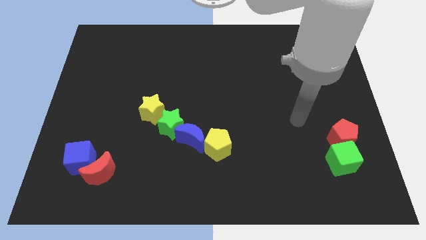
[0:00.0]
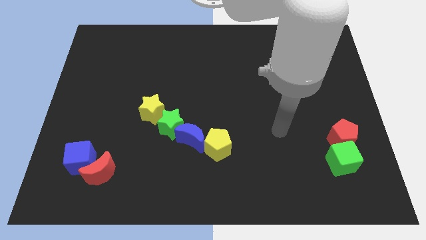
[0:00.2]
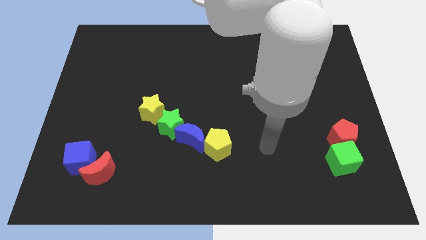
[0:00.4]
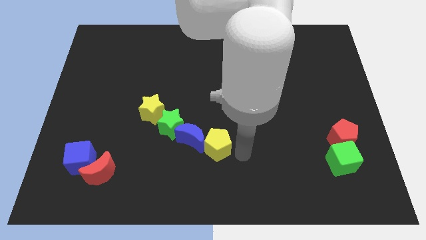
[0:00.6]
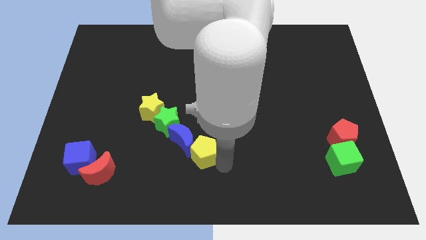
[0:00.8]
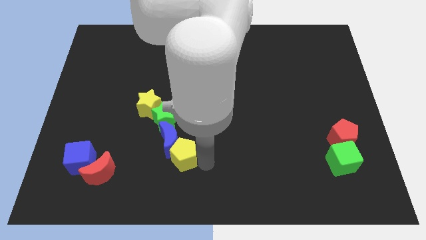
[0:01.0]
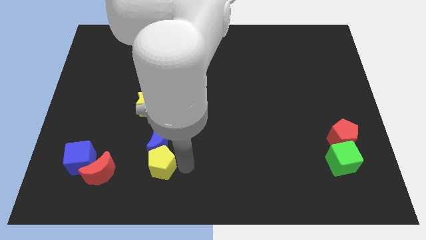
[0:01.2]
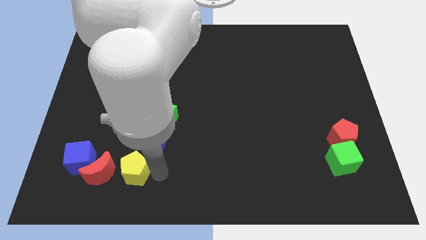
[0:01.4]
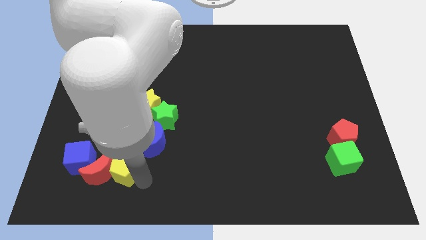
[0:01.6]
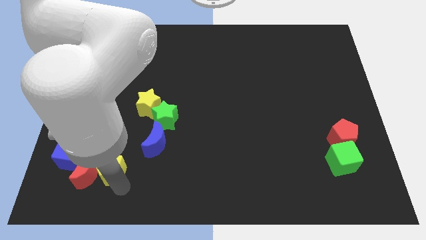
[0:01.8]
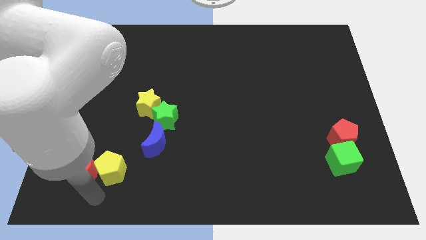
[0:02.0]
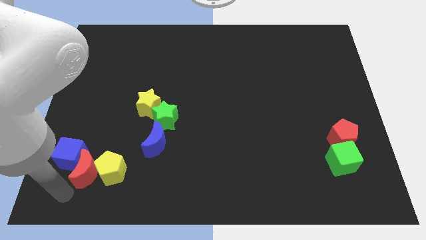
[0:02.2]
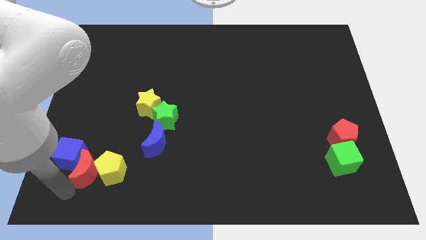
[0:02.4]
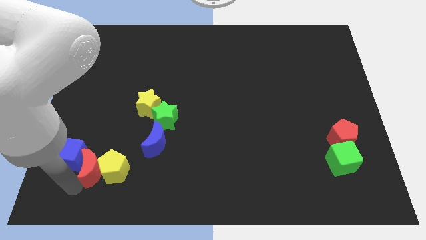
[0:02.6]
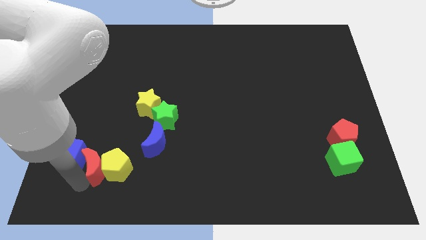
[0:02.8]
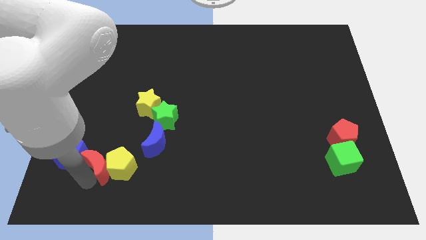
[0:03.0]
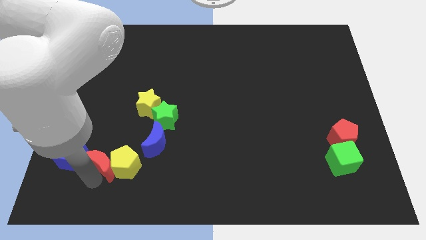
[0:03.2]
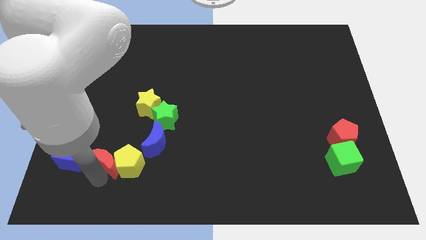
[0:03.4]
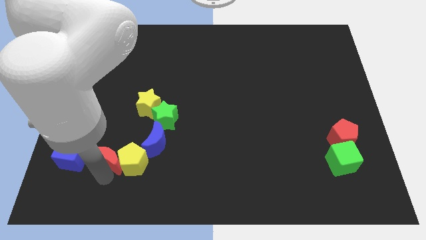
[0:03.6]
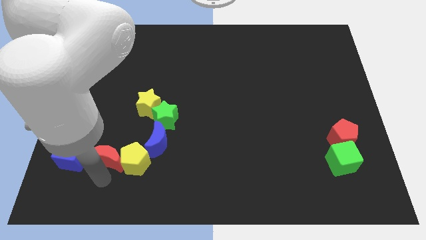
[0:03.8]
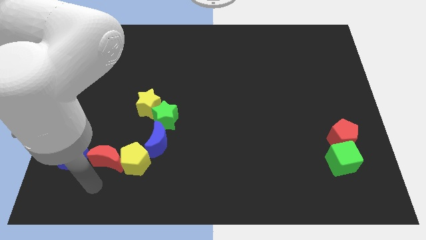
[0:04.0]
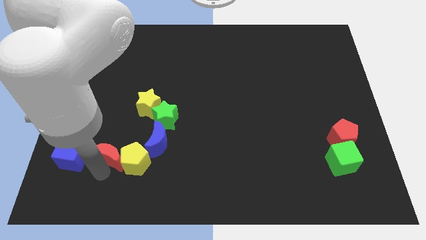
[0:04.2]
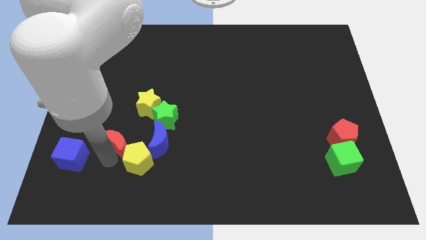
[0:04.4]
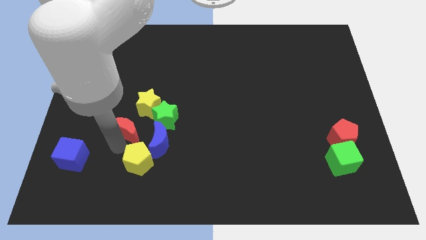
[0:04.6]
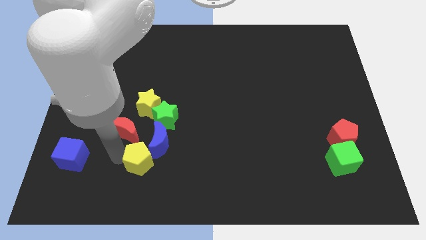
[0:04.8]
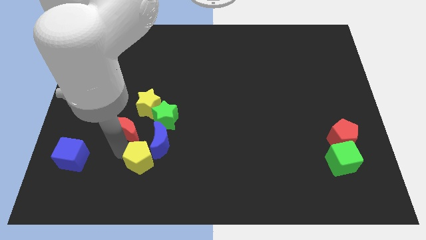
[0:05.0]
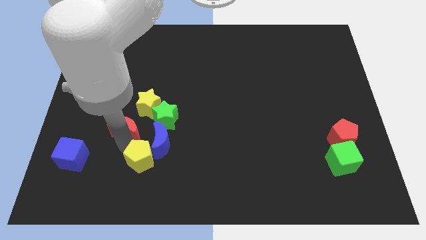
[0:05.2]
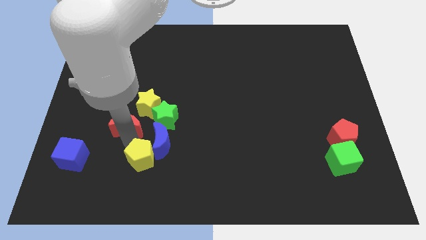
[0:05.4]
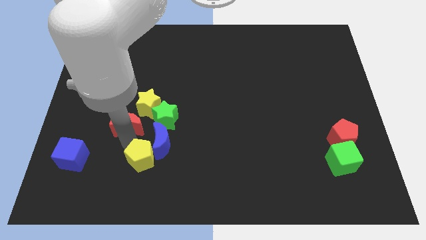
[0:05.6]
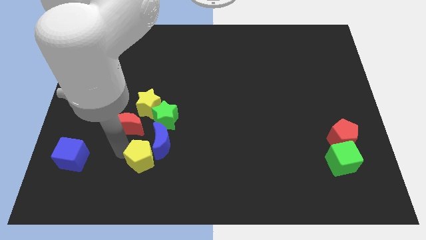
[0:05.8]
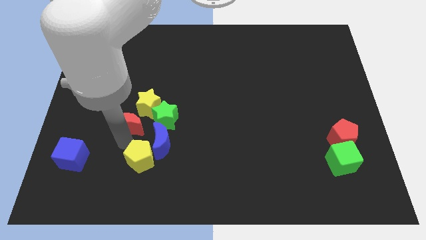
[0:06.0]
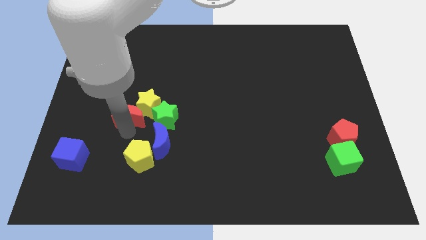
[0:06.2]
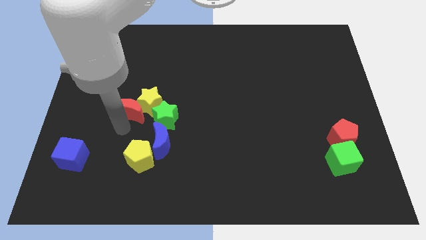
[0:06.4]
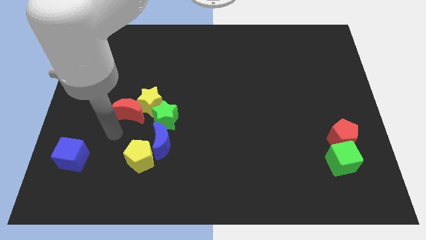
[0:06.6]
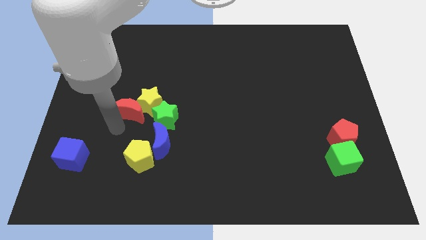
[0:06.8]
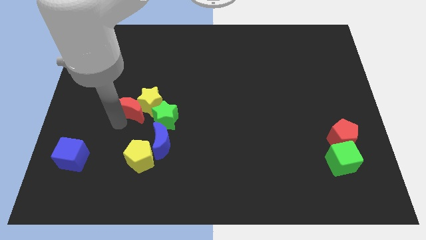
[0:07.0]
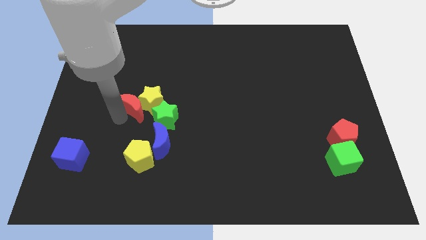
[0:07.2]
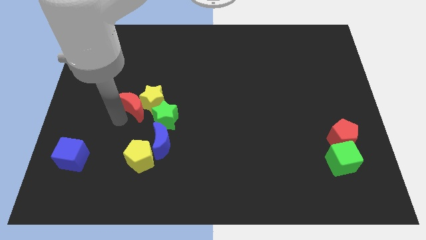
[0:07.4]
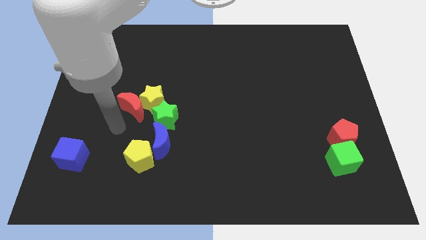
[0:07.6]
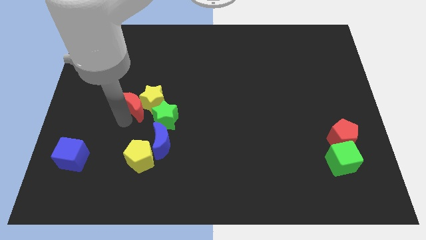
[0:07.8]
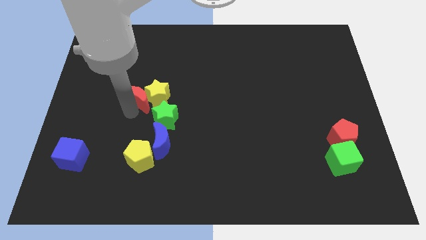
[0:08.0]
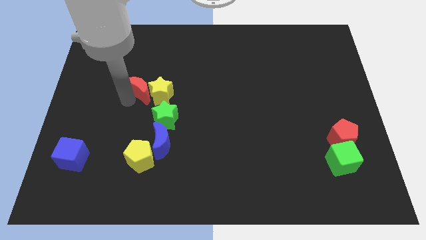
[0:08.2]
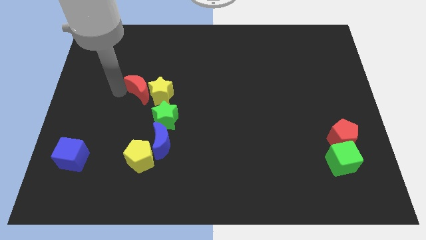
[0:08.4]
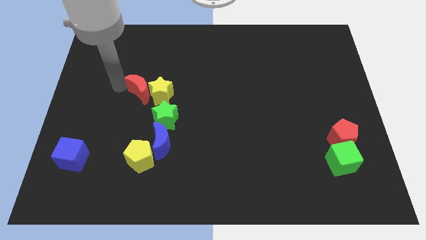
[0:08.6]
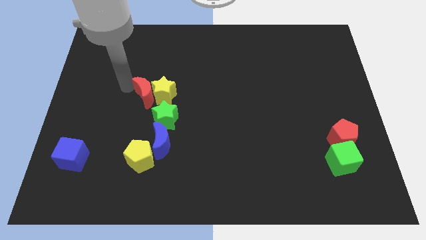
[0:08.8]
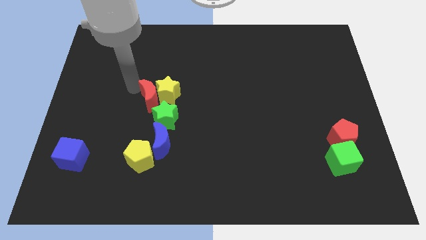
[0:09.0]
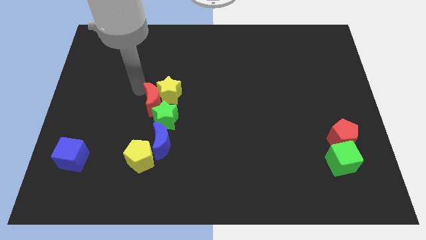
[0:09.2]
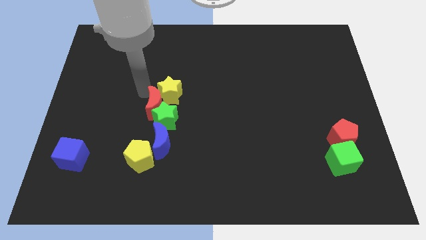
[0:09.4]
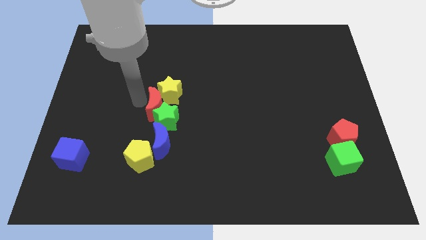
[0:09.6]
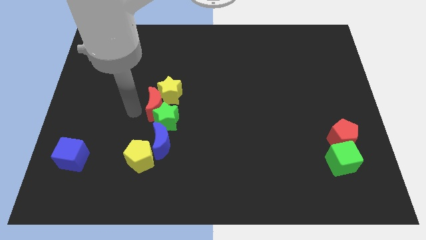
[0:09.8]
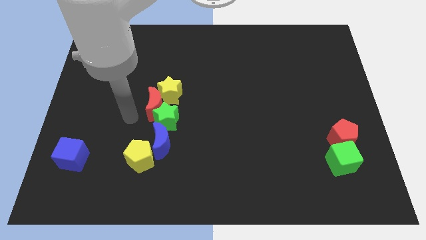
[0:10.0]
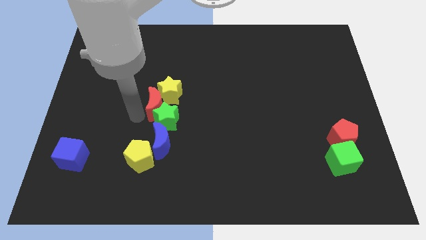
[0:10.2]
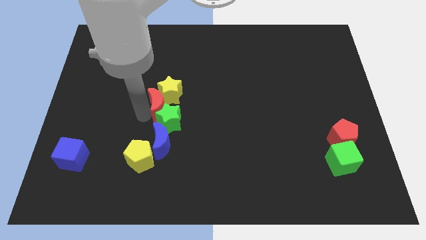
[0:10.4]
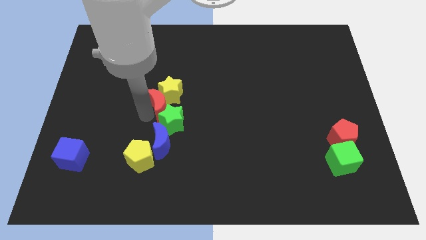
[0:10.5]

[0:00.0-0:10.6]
slide the red moon to the middle of the board

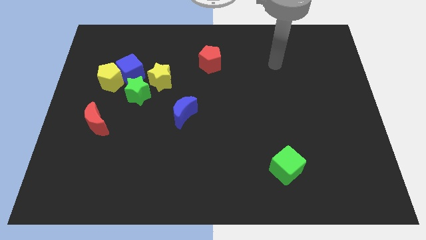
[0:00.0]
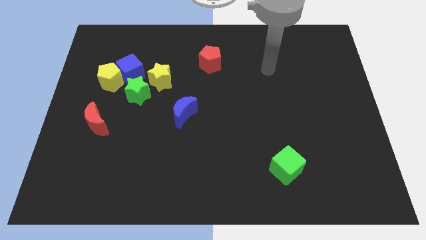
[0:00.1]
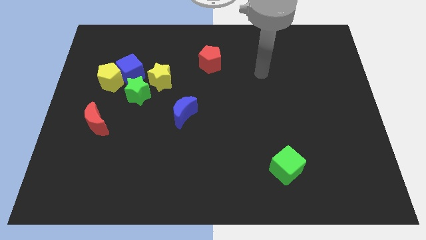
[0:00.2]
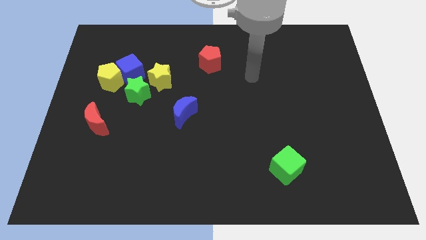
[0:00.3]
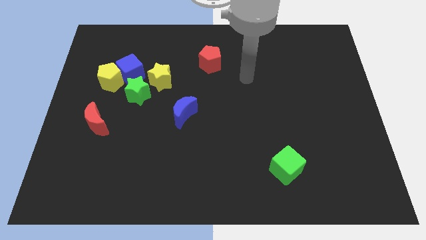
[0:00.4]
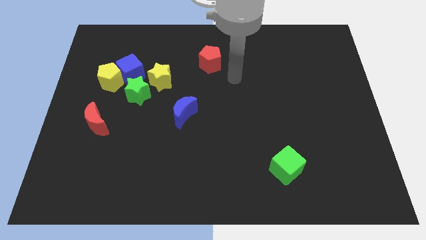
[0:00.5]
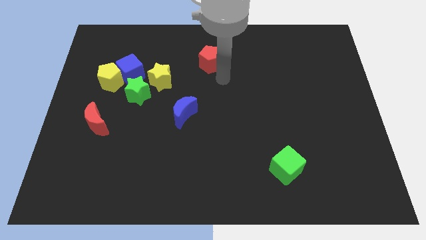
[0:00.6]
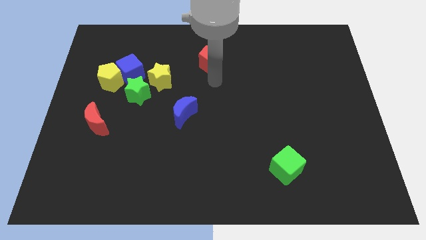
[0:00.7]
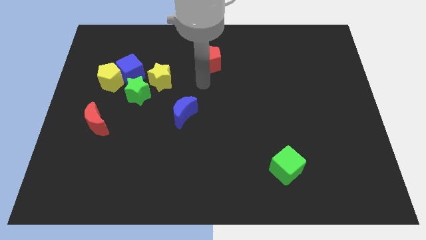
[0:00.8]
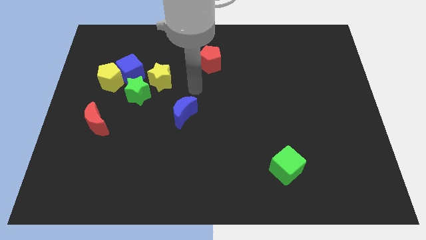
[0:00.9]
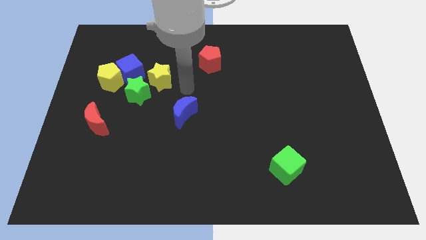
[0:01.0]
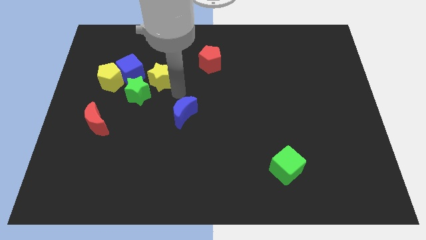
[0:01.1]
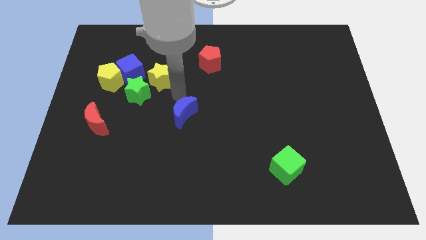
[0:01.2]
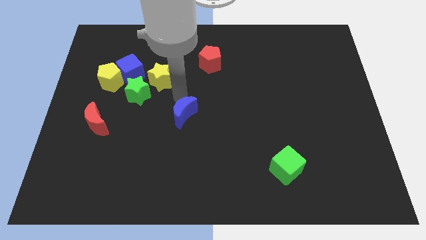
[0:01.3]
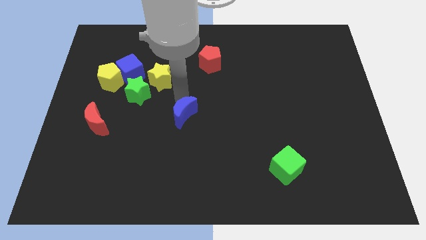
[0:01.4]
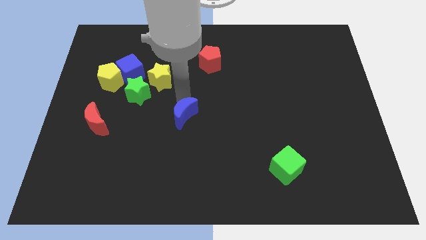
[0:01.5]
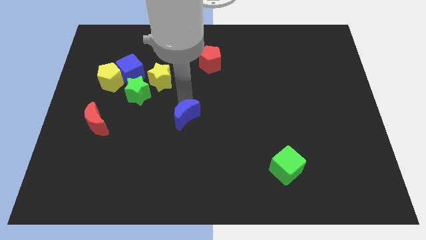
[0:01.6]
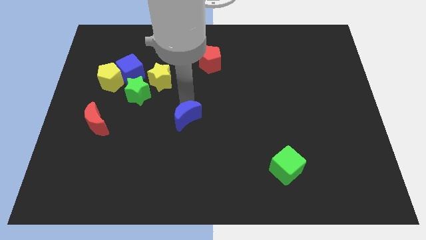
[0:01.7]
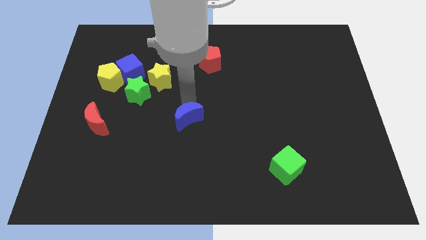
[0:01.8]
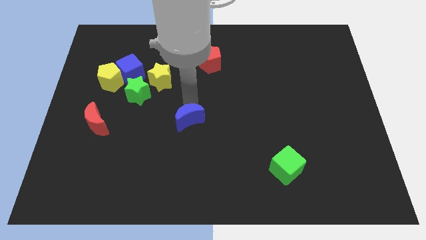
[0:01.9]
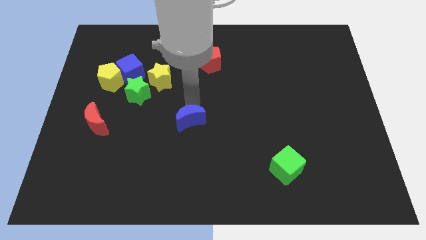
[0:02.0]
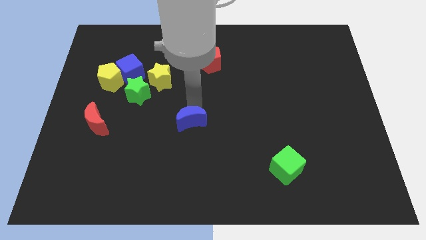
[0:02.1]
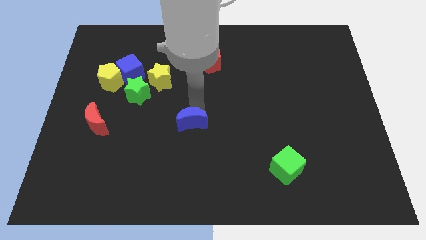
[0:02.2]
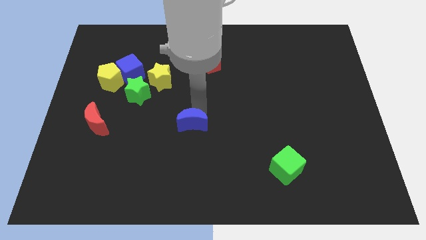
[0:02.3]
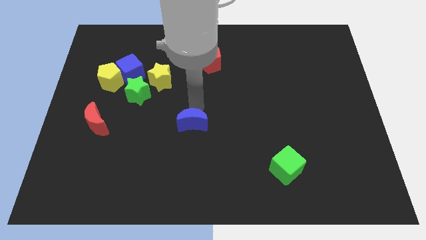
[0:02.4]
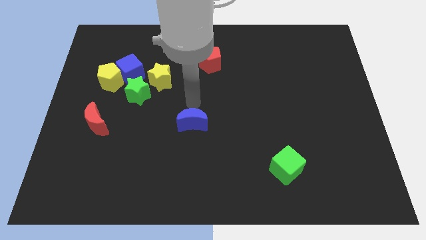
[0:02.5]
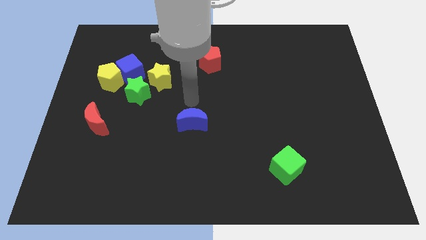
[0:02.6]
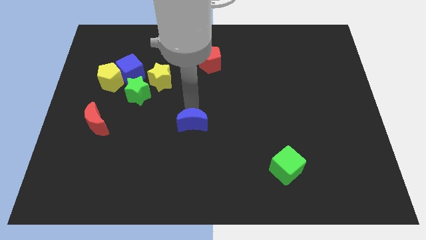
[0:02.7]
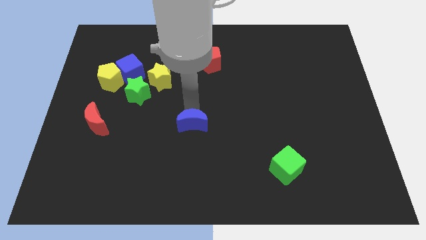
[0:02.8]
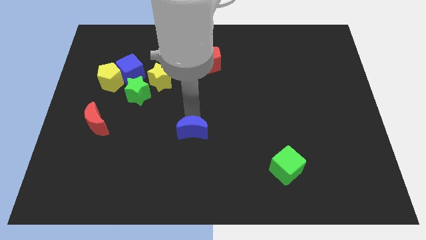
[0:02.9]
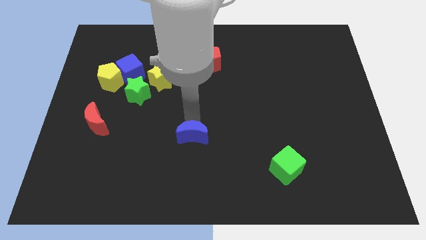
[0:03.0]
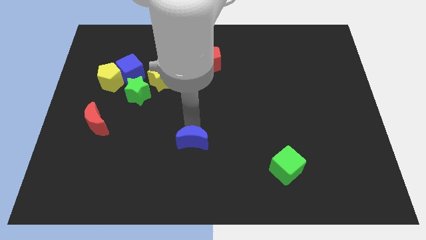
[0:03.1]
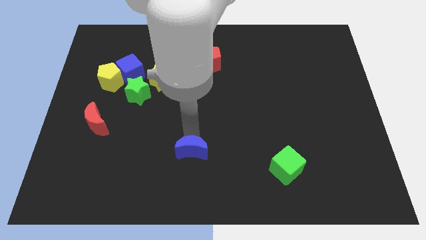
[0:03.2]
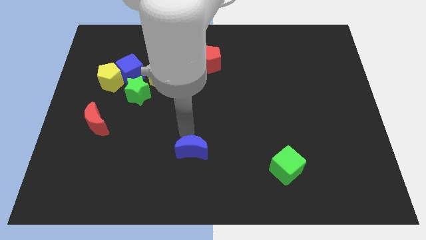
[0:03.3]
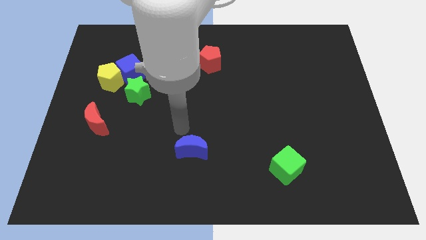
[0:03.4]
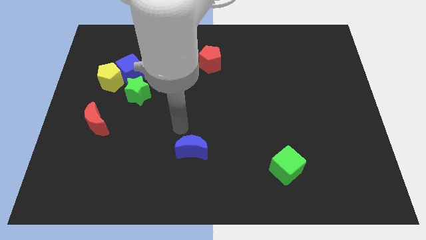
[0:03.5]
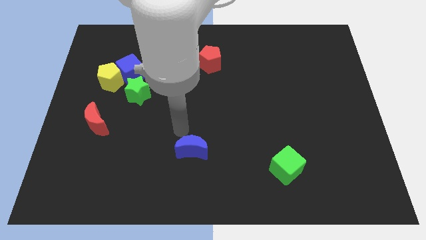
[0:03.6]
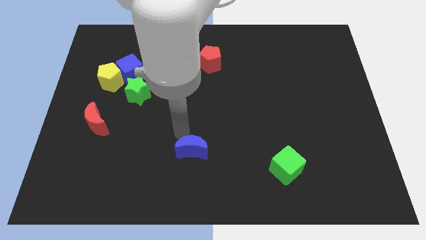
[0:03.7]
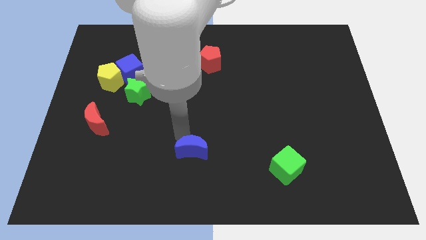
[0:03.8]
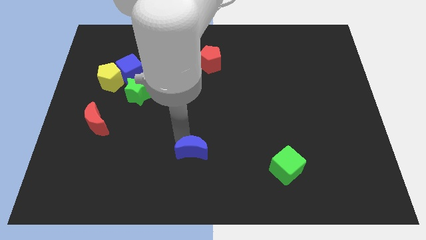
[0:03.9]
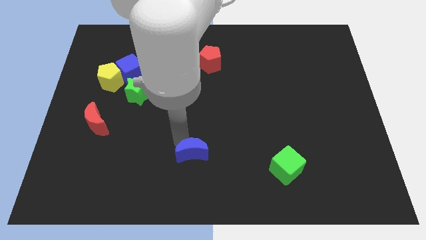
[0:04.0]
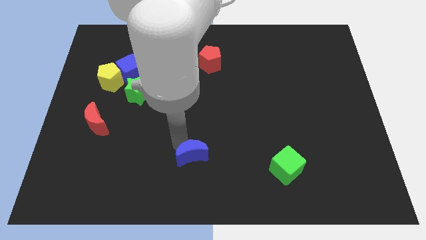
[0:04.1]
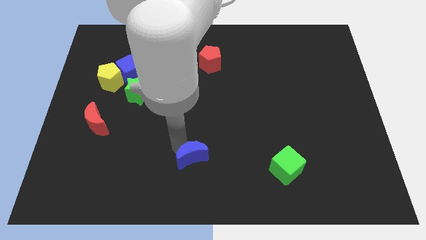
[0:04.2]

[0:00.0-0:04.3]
move the blue moon to the bottom side
